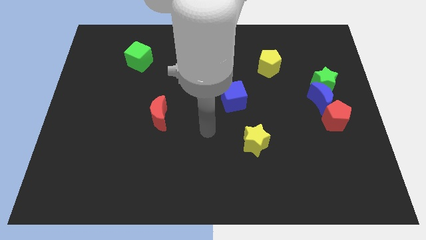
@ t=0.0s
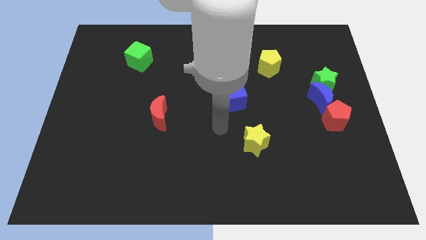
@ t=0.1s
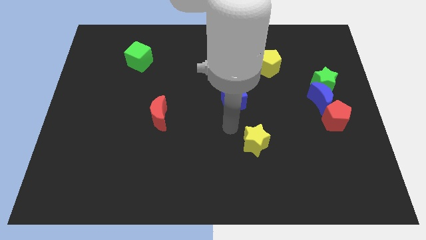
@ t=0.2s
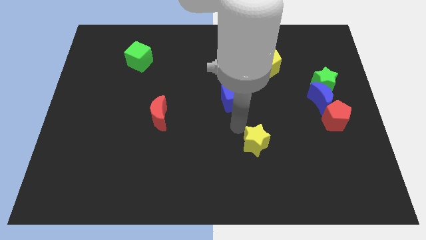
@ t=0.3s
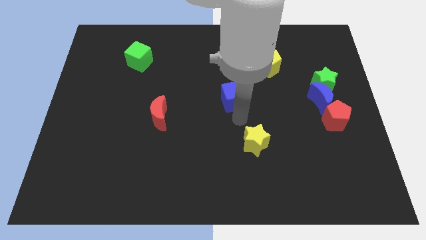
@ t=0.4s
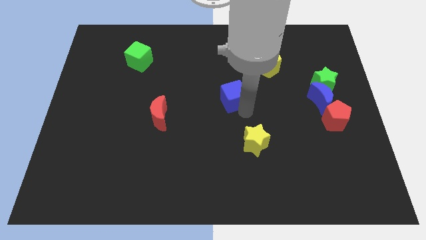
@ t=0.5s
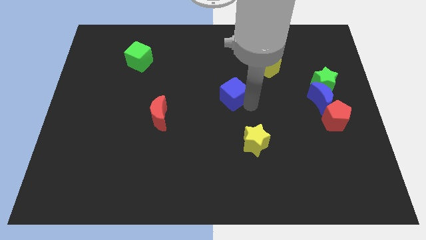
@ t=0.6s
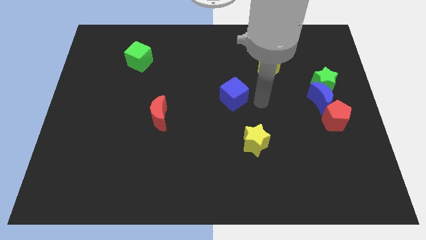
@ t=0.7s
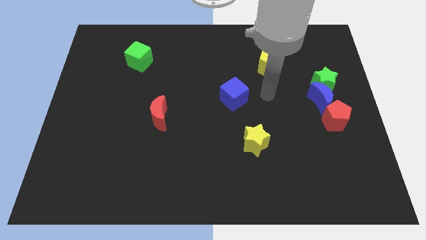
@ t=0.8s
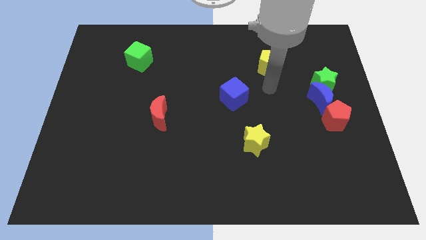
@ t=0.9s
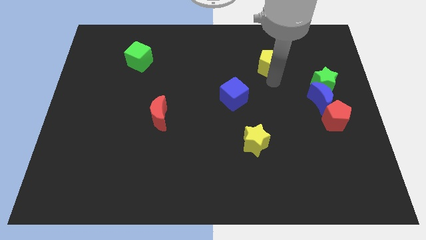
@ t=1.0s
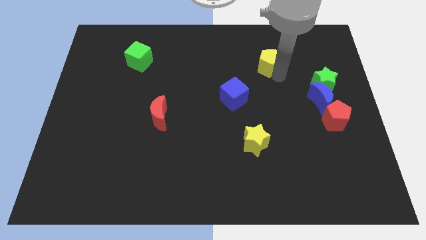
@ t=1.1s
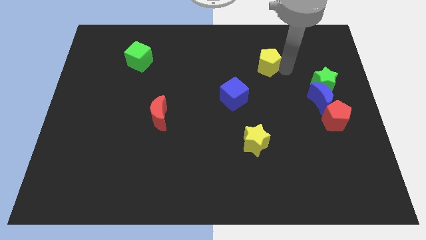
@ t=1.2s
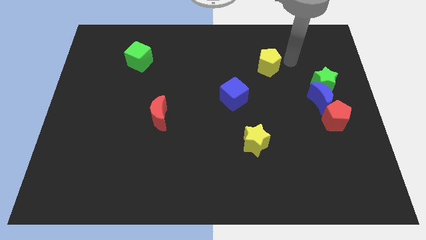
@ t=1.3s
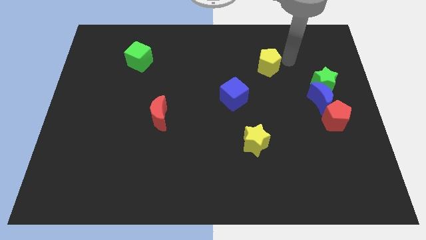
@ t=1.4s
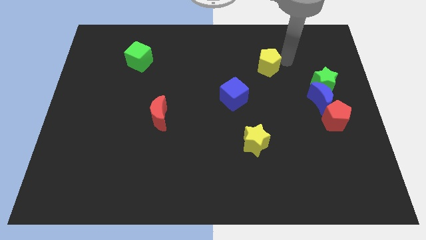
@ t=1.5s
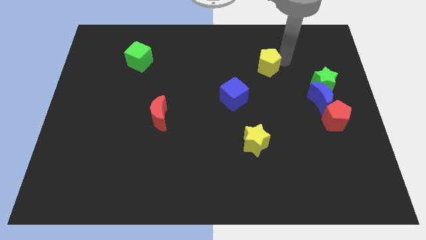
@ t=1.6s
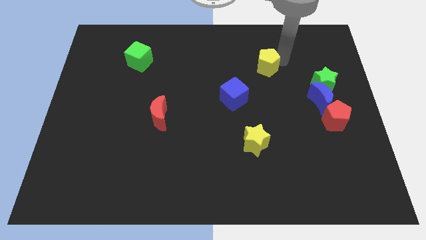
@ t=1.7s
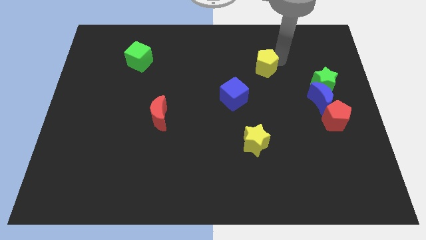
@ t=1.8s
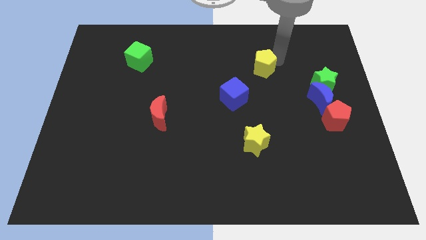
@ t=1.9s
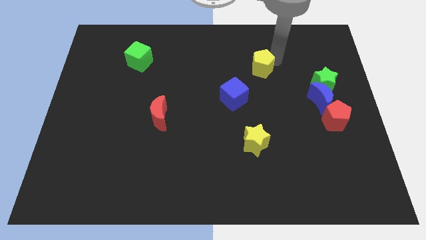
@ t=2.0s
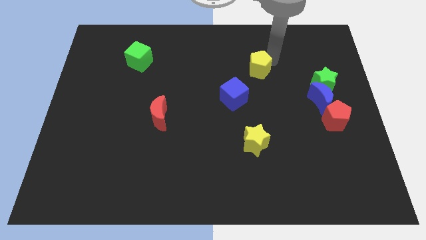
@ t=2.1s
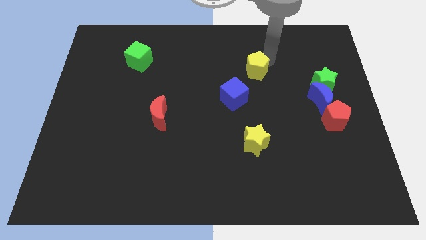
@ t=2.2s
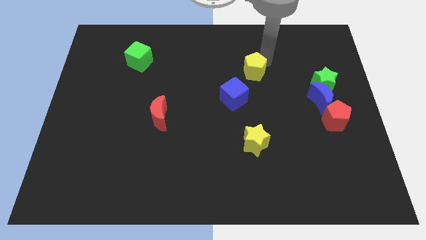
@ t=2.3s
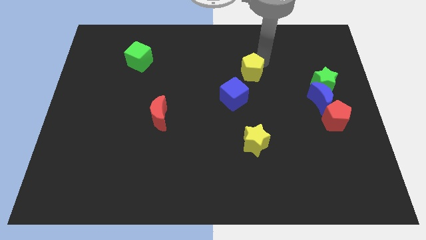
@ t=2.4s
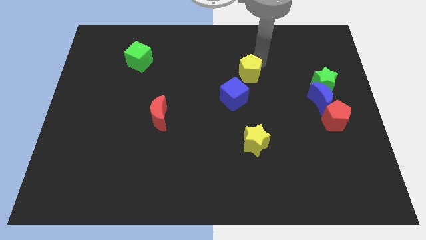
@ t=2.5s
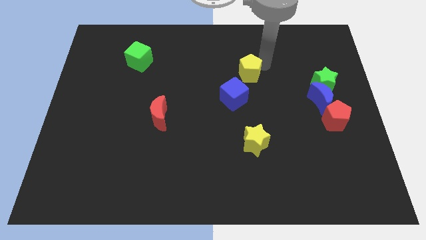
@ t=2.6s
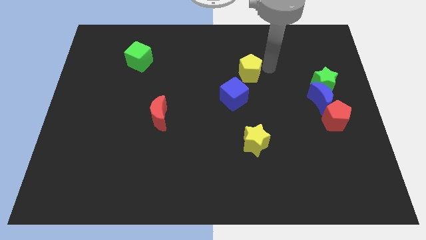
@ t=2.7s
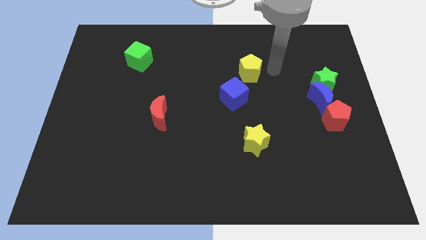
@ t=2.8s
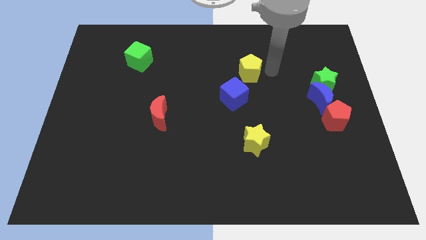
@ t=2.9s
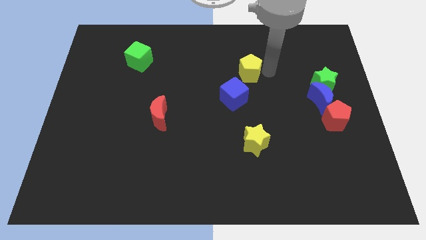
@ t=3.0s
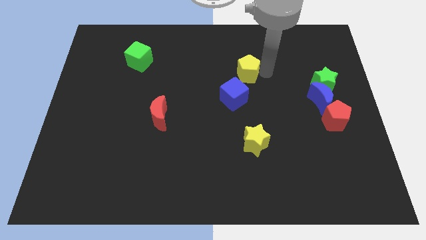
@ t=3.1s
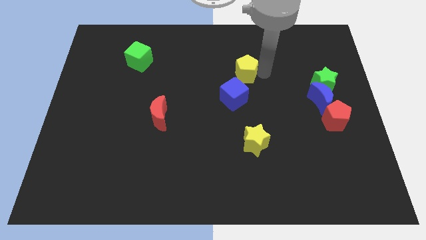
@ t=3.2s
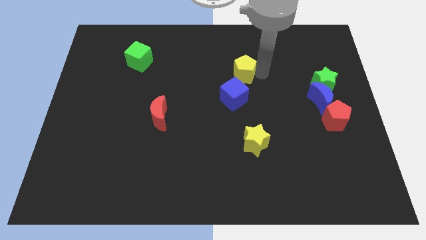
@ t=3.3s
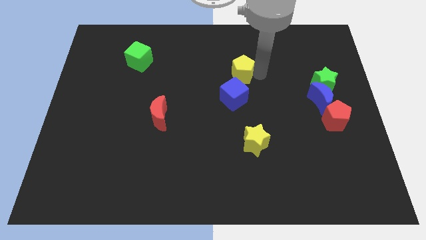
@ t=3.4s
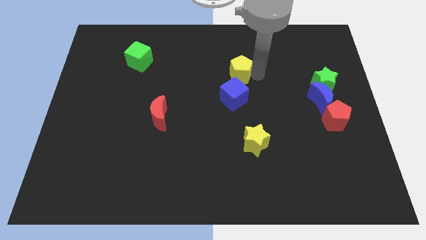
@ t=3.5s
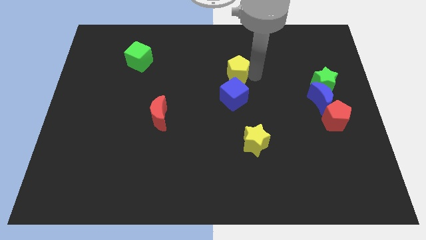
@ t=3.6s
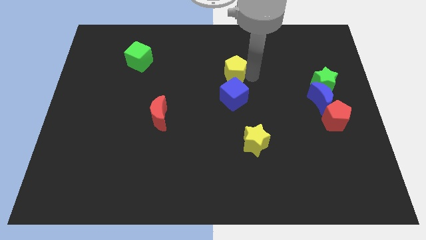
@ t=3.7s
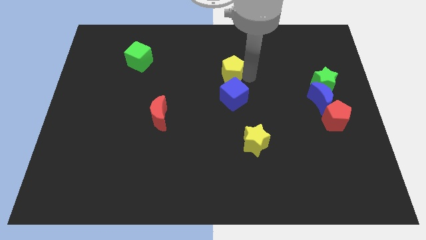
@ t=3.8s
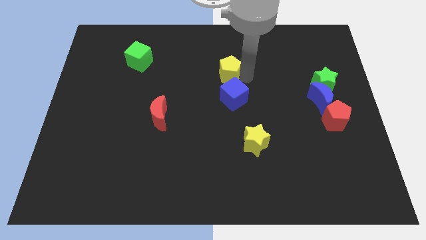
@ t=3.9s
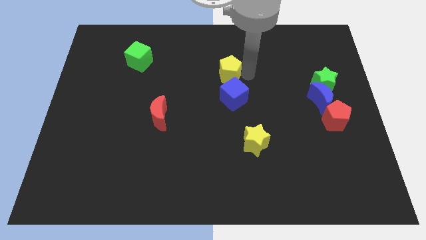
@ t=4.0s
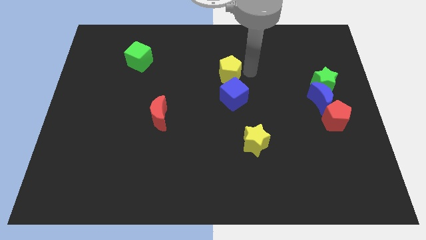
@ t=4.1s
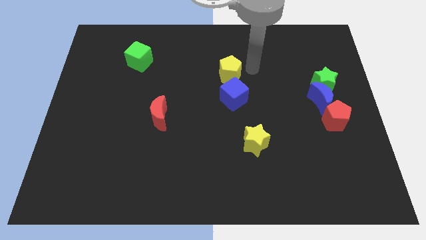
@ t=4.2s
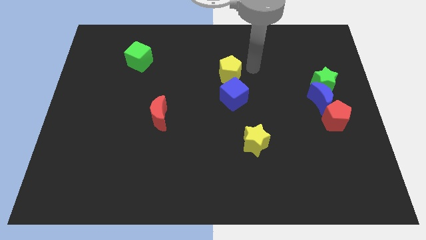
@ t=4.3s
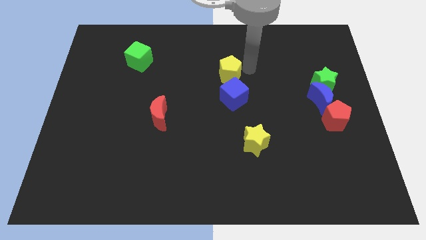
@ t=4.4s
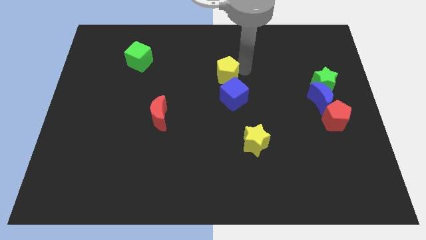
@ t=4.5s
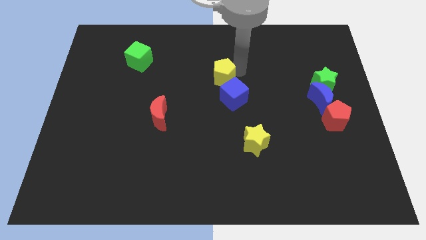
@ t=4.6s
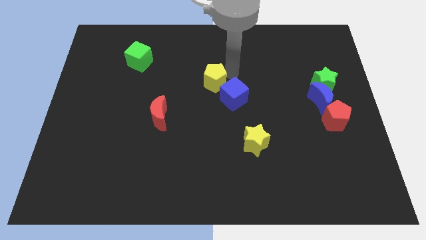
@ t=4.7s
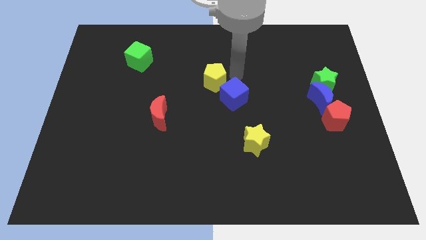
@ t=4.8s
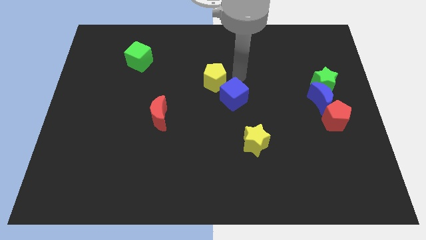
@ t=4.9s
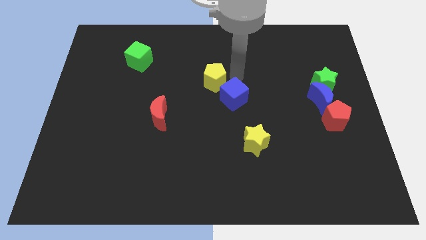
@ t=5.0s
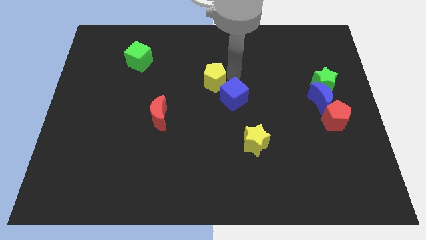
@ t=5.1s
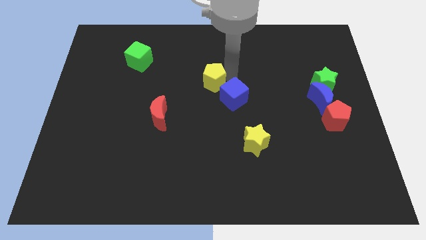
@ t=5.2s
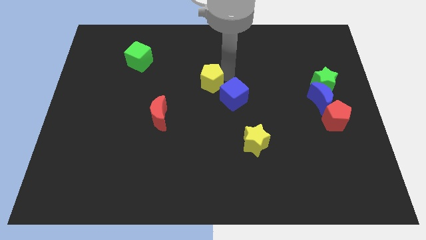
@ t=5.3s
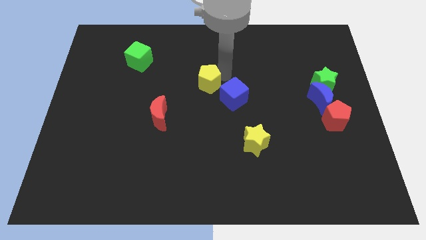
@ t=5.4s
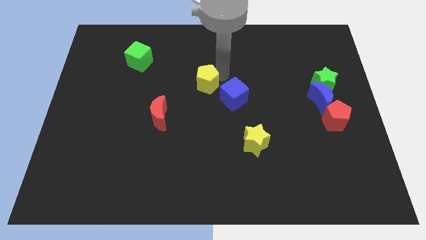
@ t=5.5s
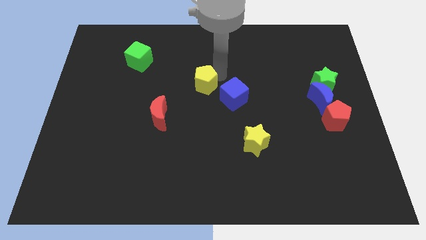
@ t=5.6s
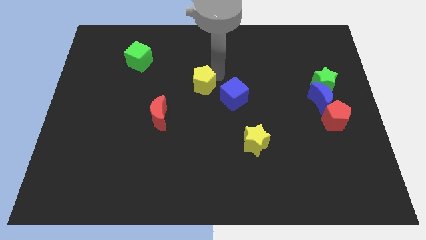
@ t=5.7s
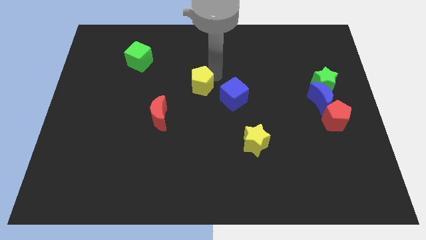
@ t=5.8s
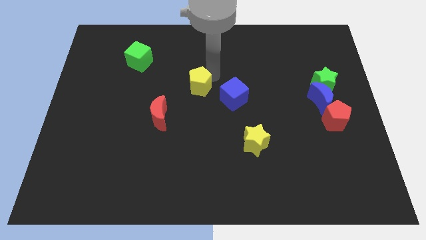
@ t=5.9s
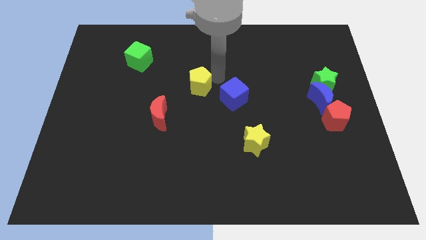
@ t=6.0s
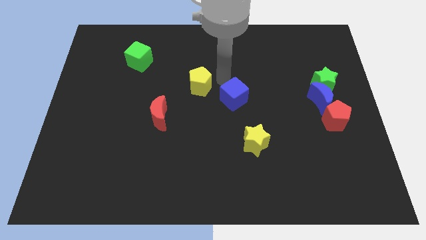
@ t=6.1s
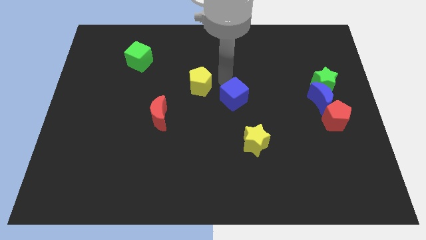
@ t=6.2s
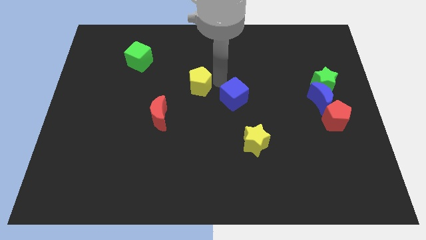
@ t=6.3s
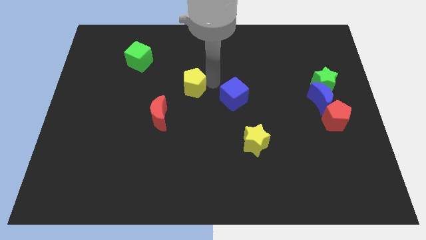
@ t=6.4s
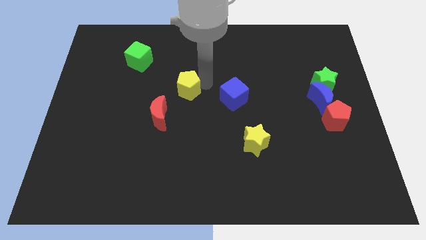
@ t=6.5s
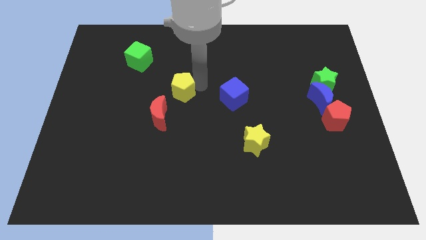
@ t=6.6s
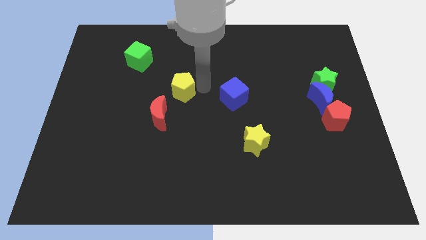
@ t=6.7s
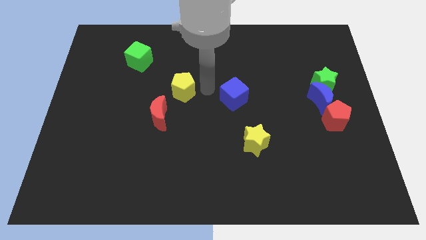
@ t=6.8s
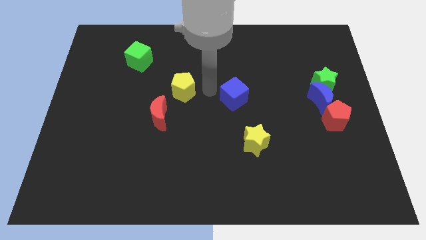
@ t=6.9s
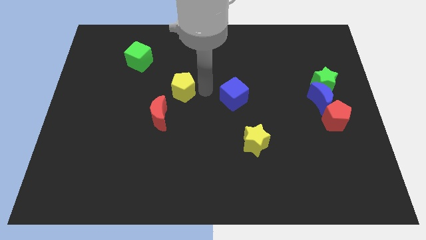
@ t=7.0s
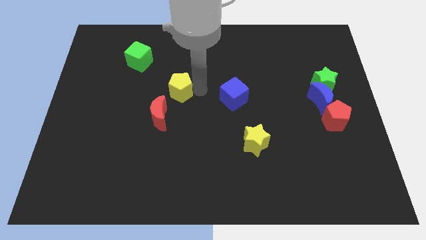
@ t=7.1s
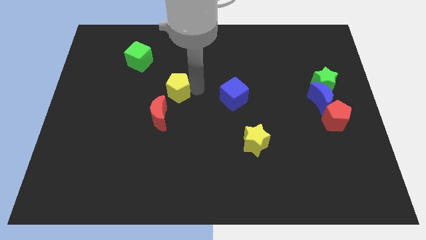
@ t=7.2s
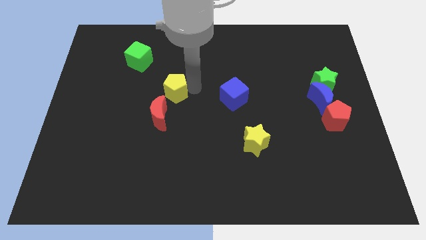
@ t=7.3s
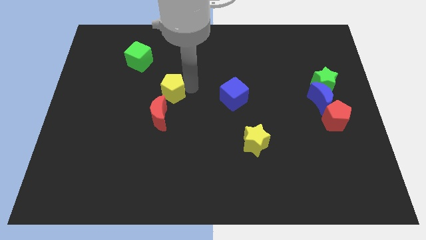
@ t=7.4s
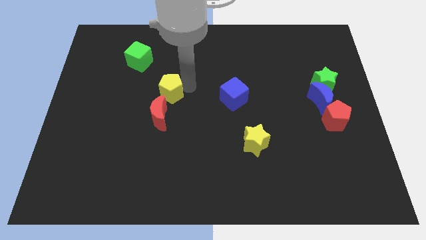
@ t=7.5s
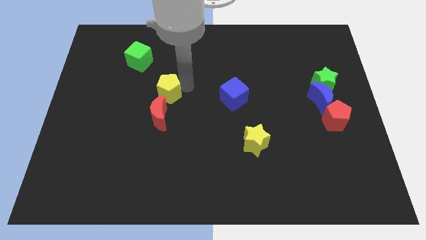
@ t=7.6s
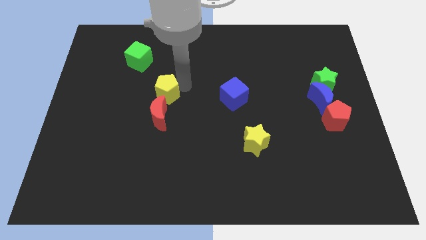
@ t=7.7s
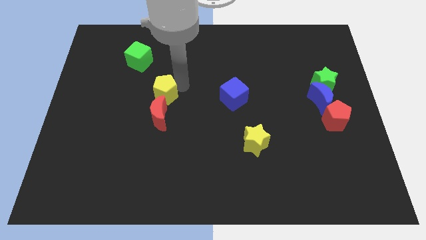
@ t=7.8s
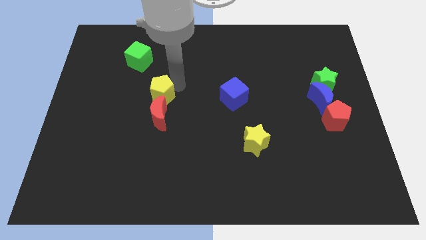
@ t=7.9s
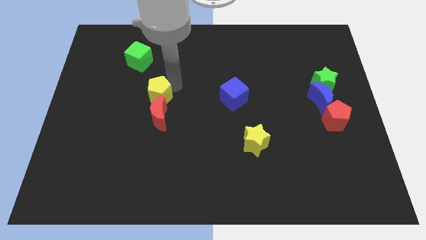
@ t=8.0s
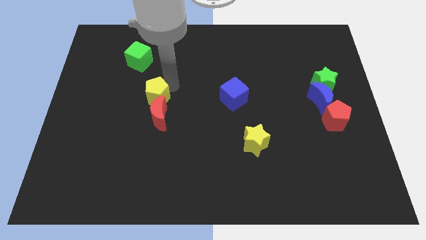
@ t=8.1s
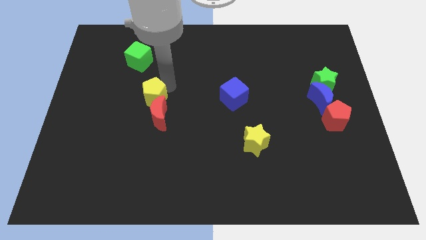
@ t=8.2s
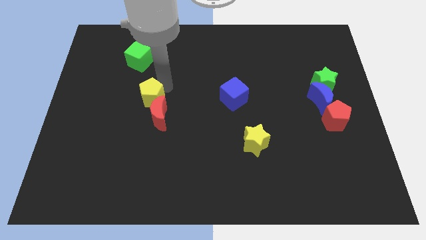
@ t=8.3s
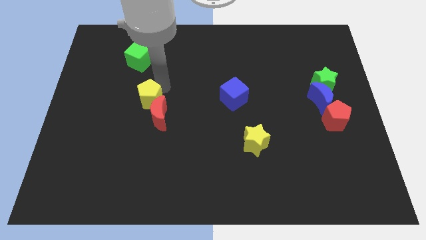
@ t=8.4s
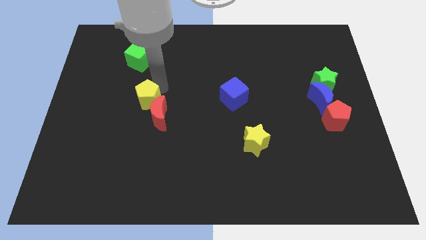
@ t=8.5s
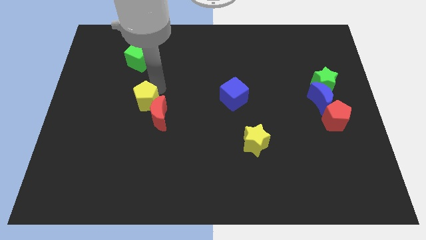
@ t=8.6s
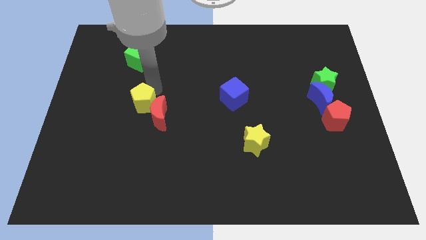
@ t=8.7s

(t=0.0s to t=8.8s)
move the yellow pentagon to the left of the red moon
